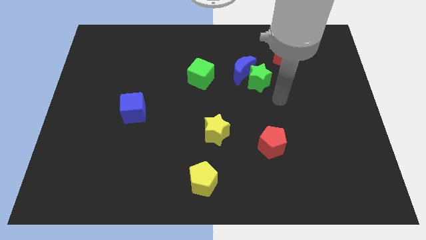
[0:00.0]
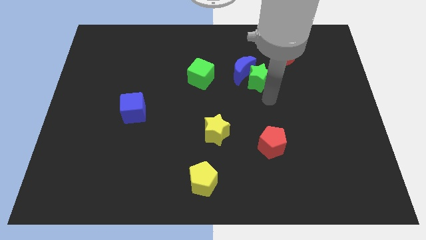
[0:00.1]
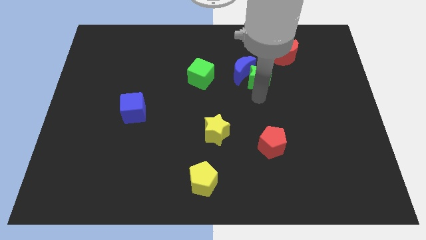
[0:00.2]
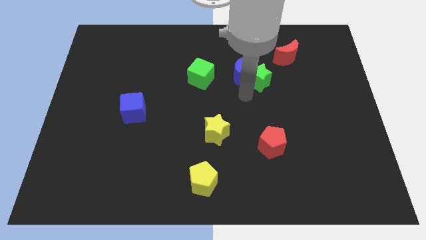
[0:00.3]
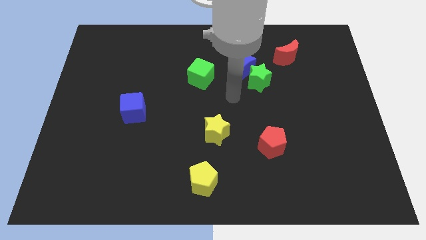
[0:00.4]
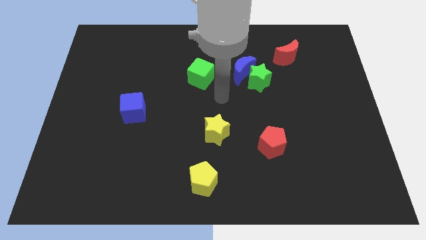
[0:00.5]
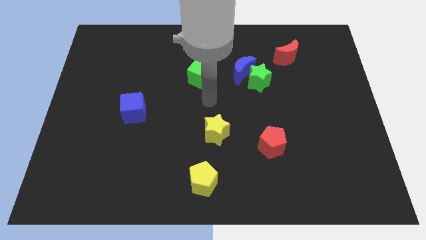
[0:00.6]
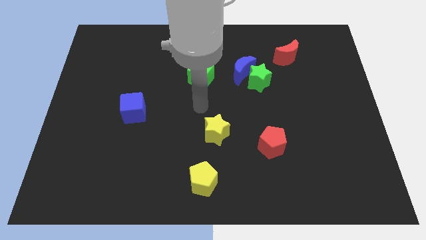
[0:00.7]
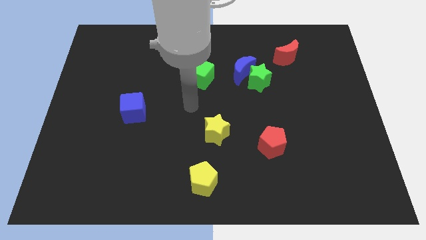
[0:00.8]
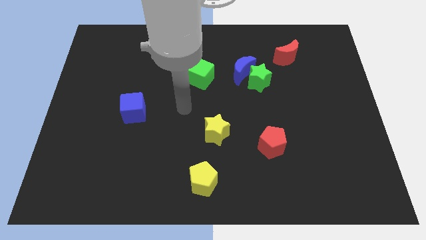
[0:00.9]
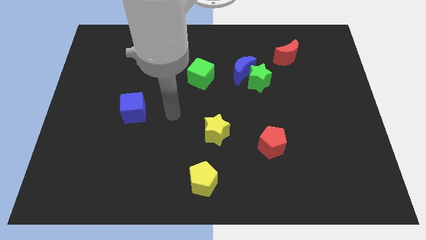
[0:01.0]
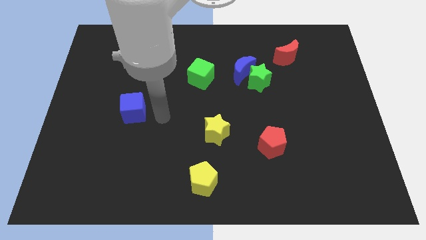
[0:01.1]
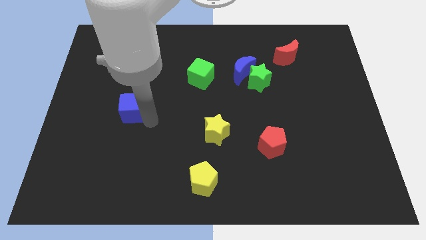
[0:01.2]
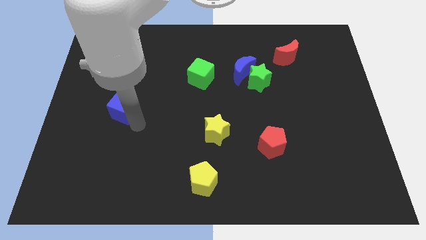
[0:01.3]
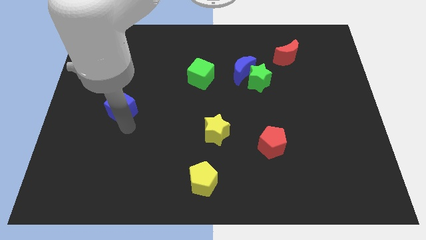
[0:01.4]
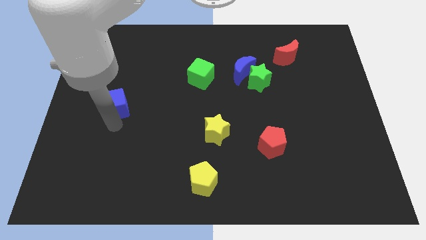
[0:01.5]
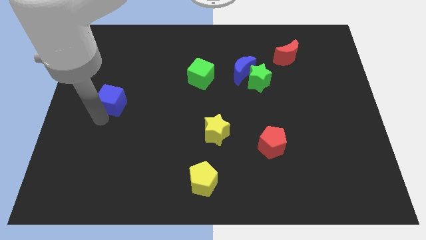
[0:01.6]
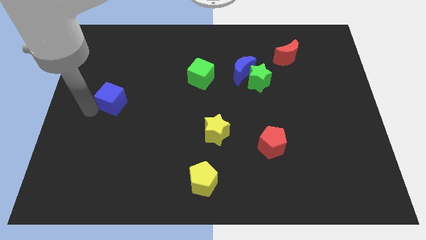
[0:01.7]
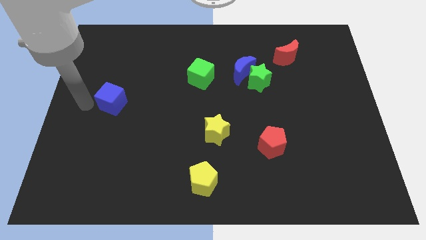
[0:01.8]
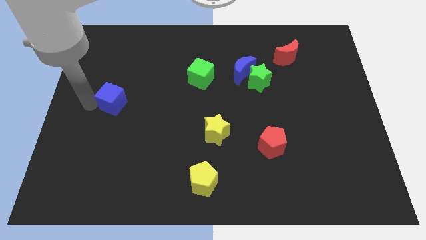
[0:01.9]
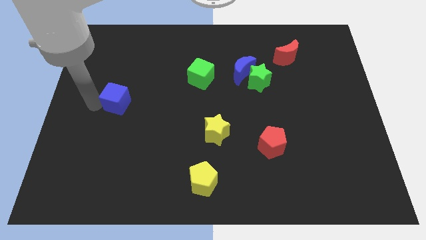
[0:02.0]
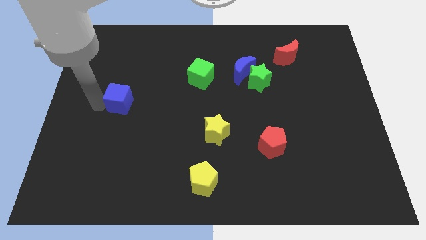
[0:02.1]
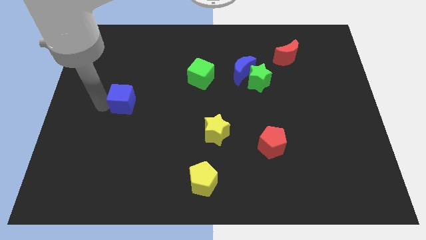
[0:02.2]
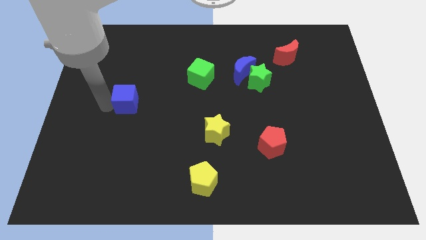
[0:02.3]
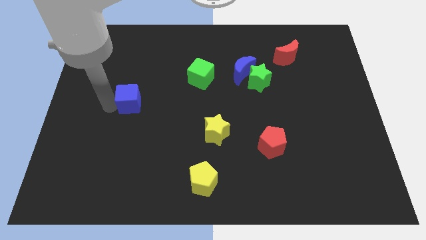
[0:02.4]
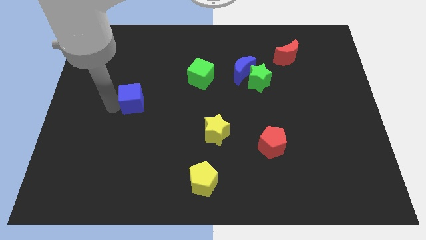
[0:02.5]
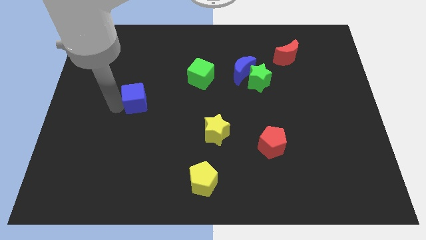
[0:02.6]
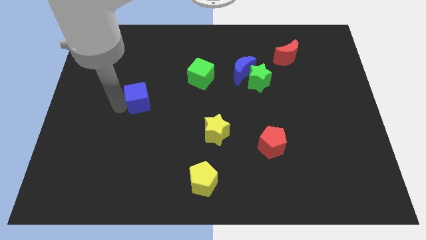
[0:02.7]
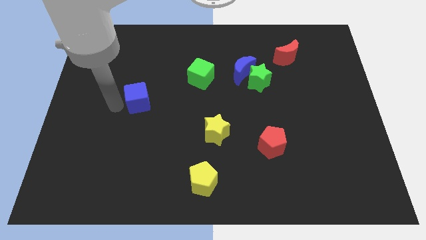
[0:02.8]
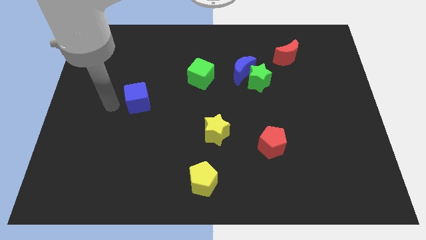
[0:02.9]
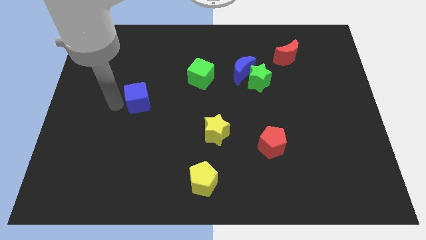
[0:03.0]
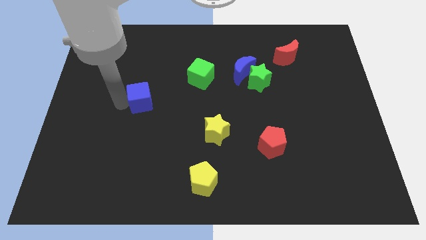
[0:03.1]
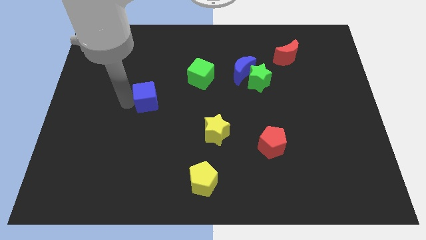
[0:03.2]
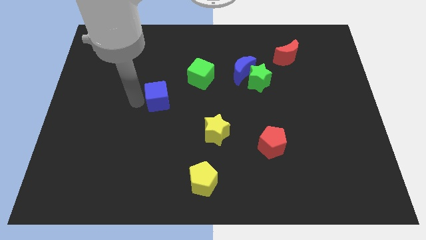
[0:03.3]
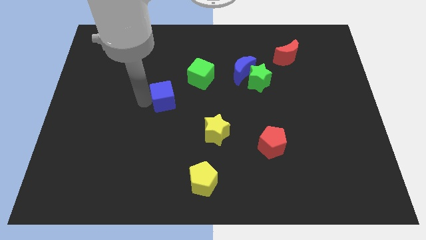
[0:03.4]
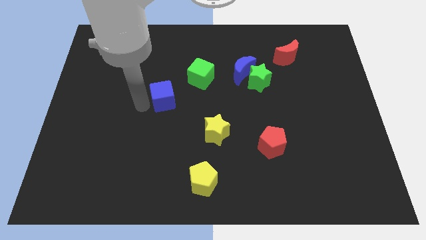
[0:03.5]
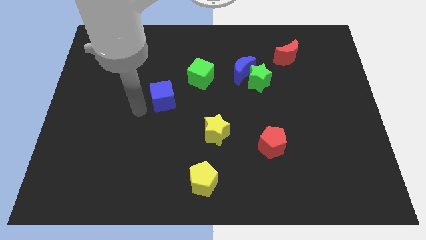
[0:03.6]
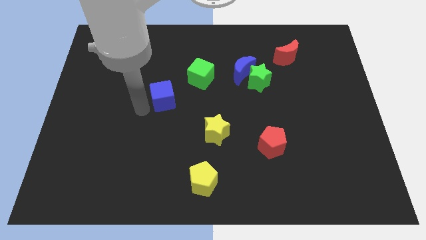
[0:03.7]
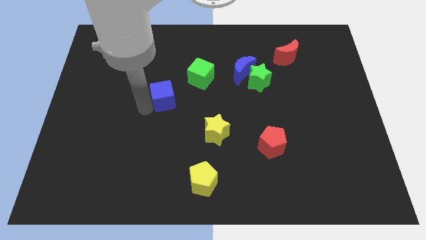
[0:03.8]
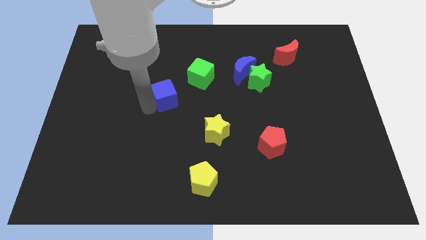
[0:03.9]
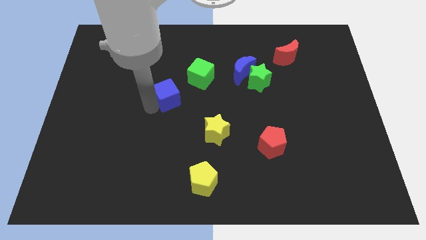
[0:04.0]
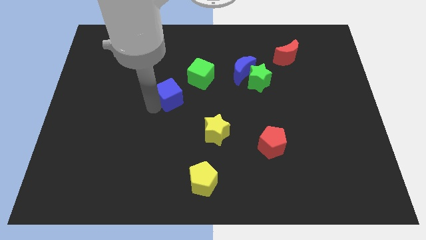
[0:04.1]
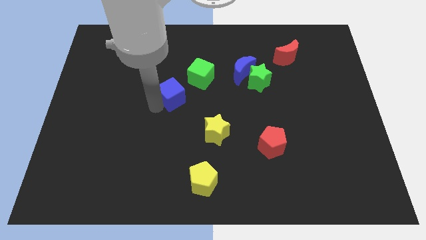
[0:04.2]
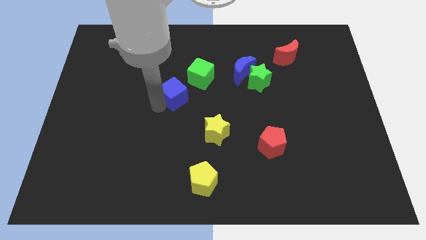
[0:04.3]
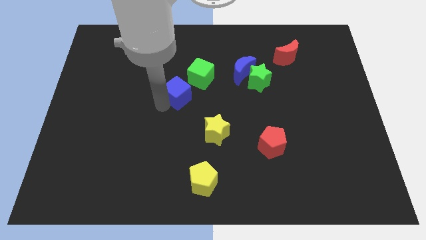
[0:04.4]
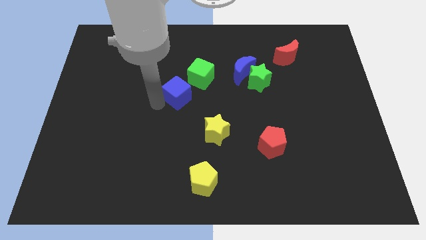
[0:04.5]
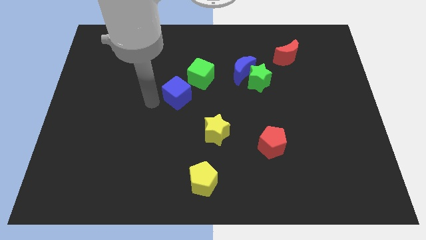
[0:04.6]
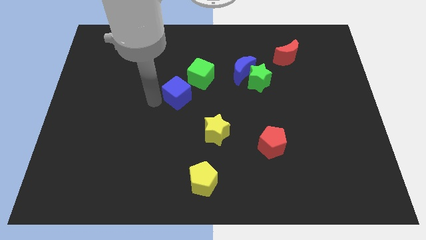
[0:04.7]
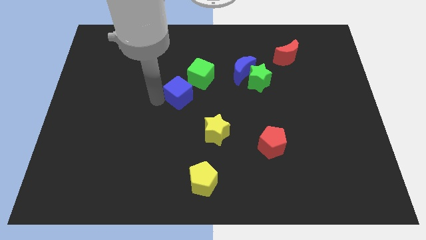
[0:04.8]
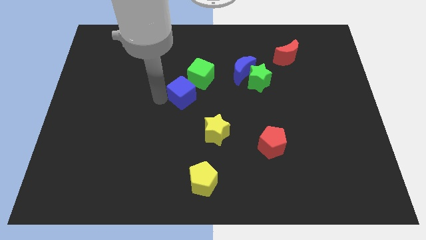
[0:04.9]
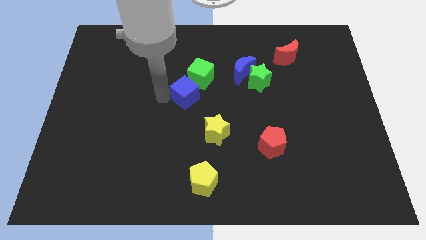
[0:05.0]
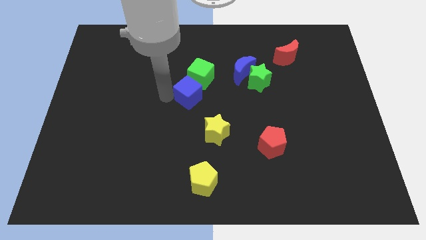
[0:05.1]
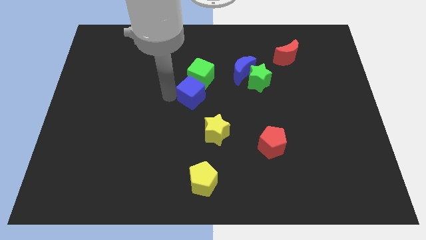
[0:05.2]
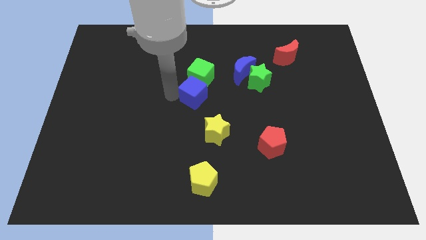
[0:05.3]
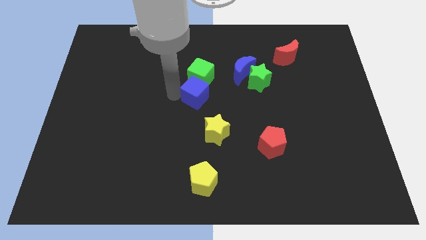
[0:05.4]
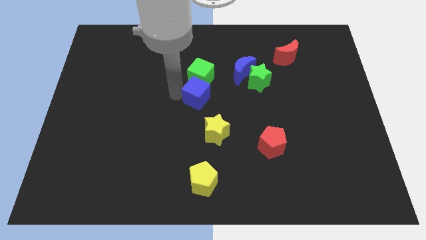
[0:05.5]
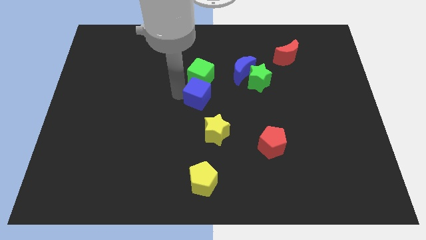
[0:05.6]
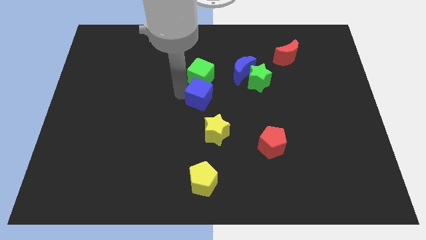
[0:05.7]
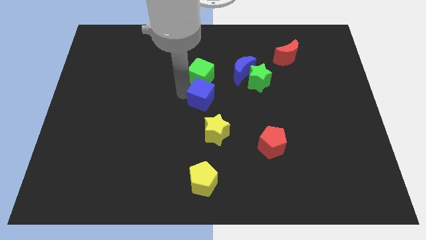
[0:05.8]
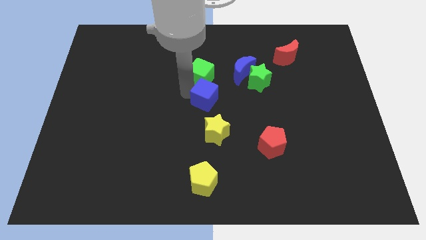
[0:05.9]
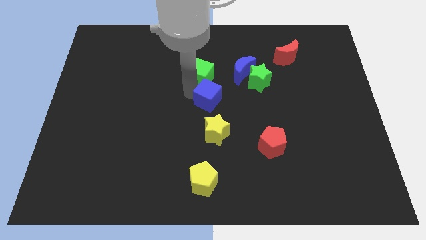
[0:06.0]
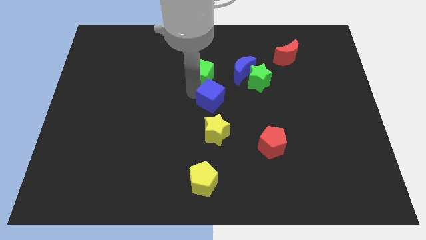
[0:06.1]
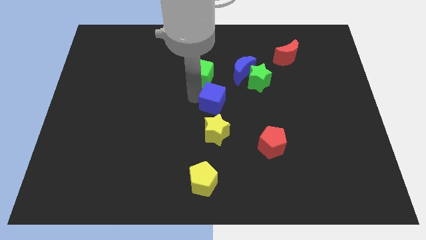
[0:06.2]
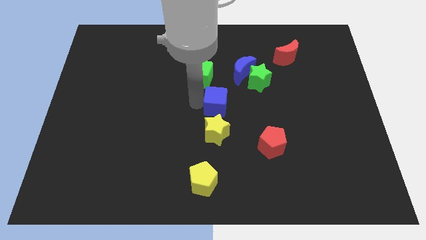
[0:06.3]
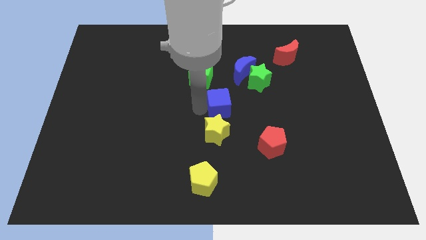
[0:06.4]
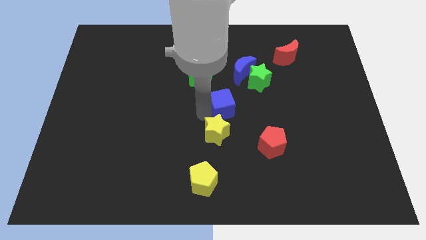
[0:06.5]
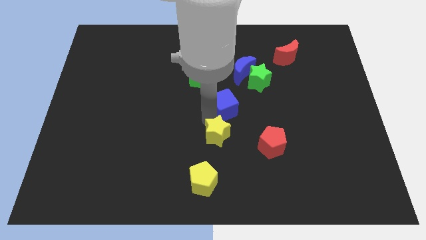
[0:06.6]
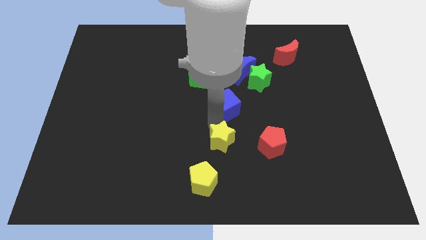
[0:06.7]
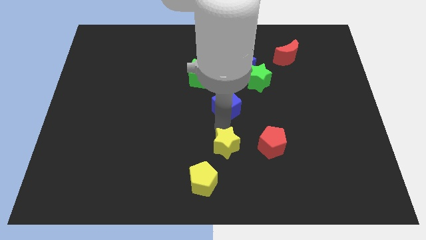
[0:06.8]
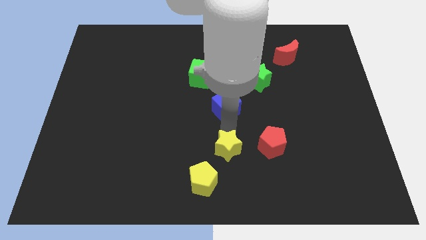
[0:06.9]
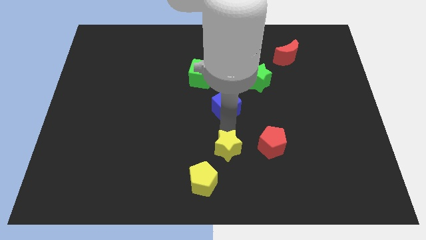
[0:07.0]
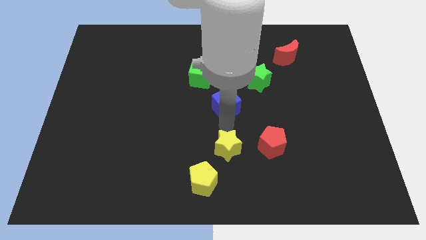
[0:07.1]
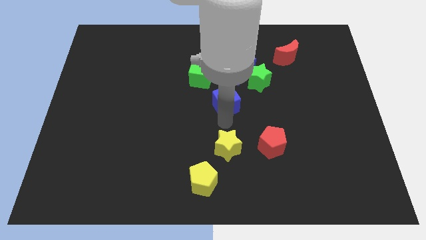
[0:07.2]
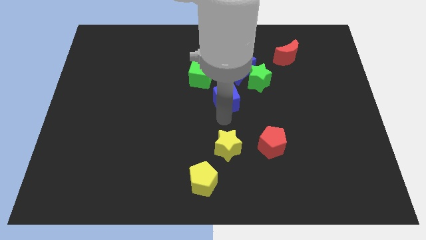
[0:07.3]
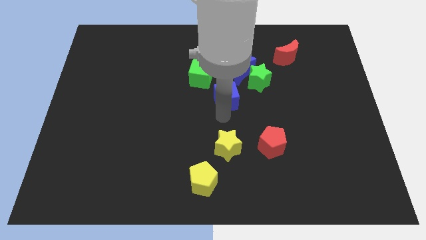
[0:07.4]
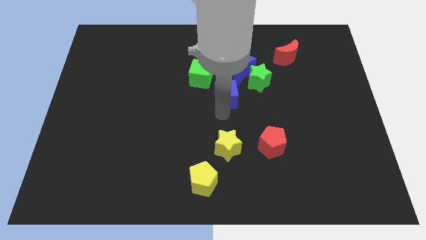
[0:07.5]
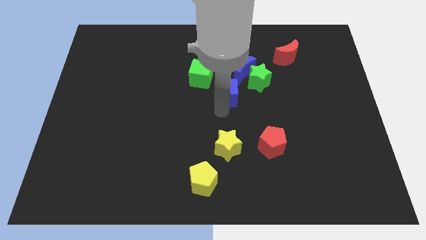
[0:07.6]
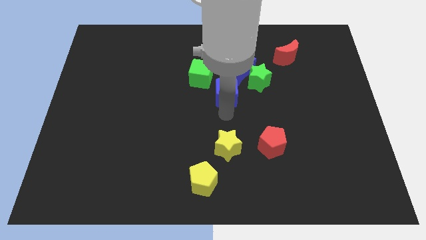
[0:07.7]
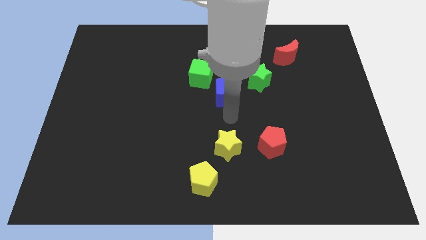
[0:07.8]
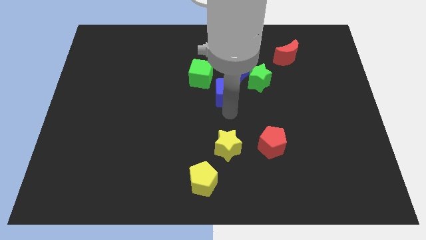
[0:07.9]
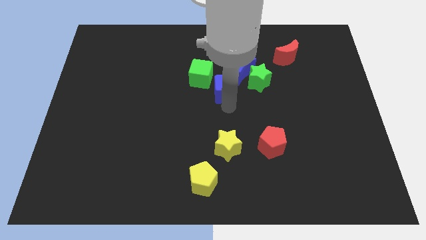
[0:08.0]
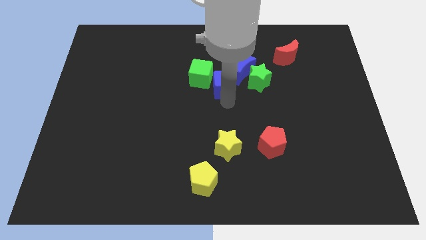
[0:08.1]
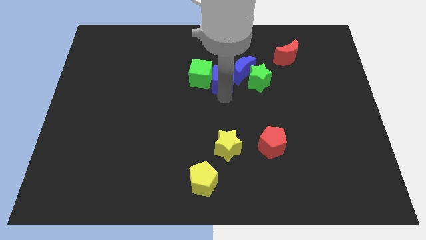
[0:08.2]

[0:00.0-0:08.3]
put the blue cube close to the blue moon
